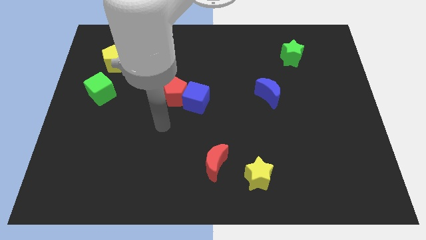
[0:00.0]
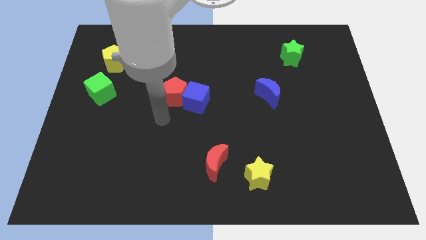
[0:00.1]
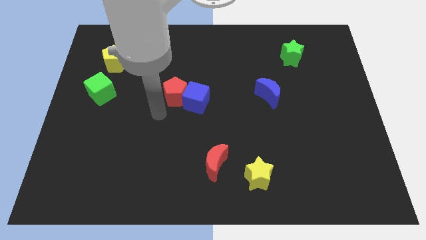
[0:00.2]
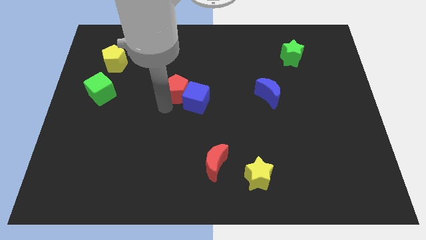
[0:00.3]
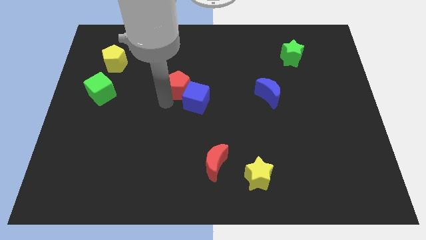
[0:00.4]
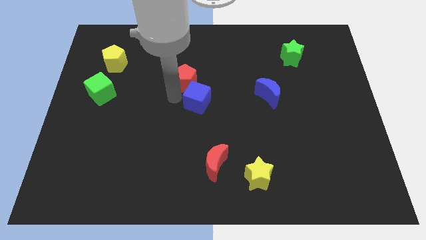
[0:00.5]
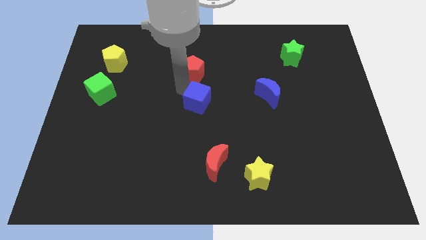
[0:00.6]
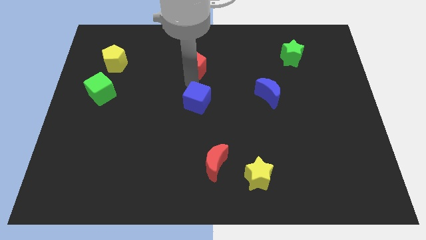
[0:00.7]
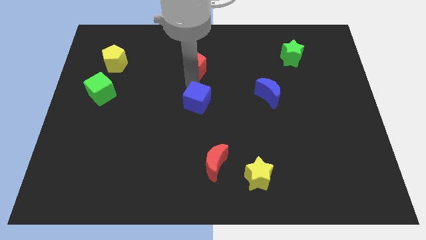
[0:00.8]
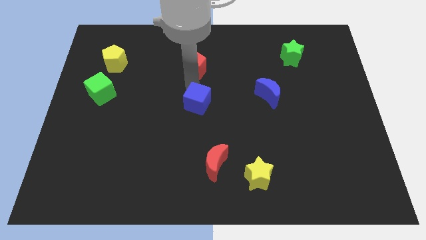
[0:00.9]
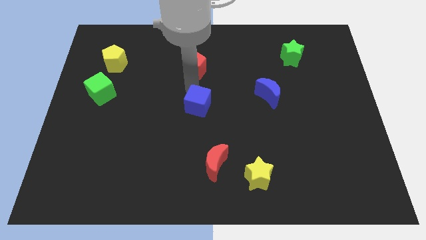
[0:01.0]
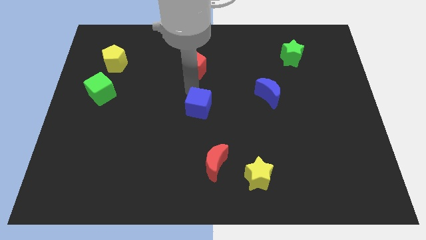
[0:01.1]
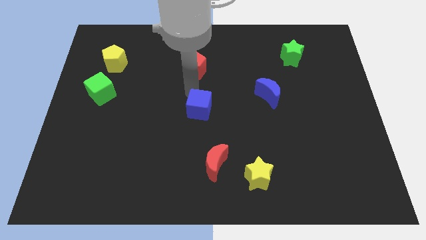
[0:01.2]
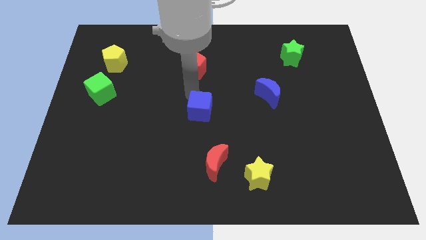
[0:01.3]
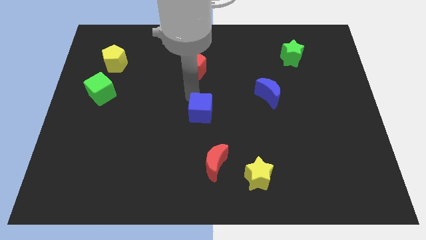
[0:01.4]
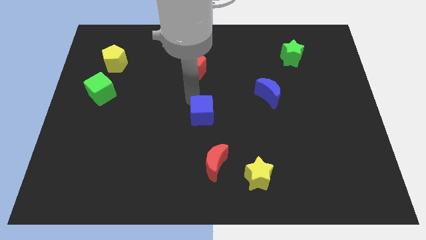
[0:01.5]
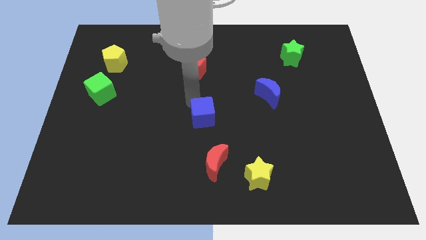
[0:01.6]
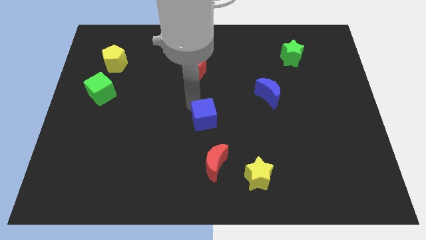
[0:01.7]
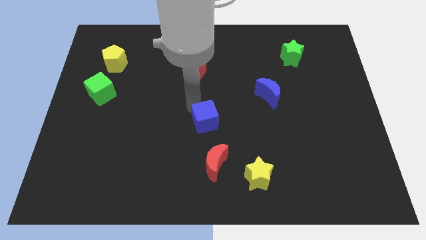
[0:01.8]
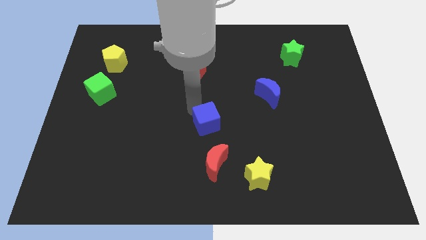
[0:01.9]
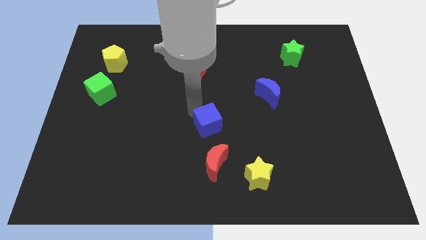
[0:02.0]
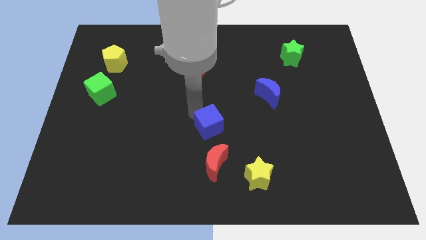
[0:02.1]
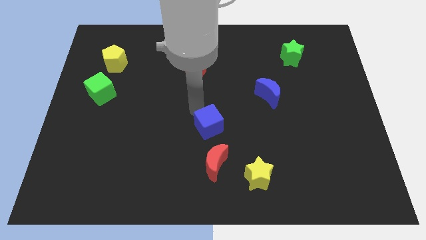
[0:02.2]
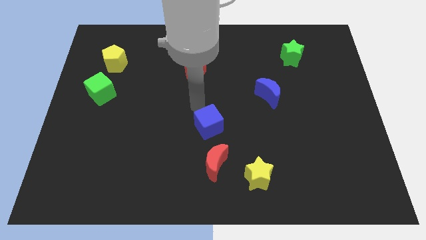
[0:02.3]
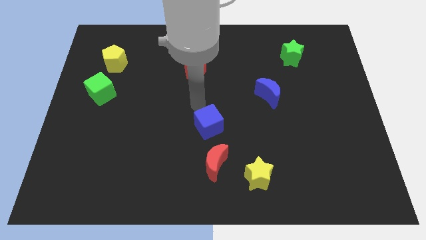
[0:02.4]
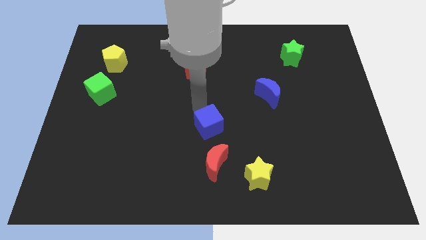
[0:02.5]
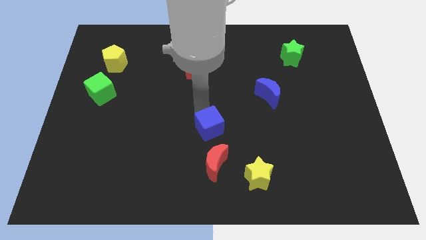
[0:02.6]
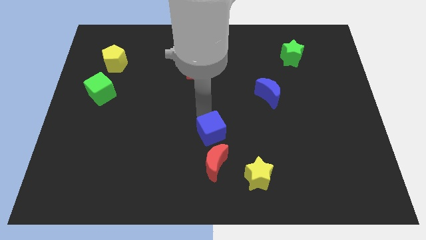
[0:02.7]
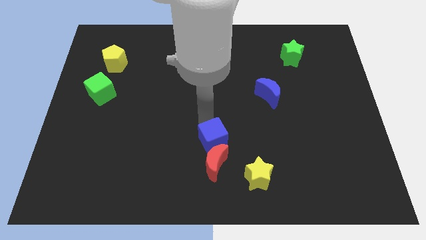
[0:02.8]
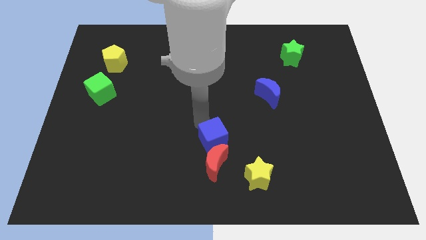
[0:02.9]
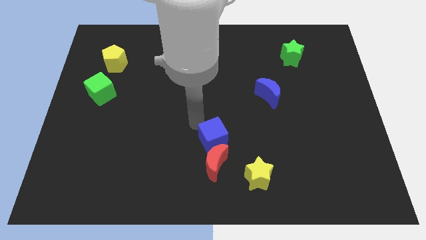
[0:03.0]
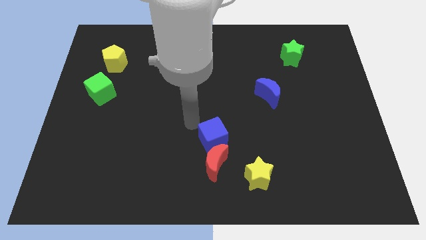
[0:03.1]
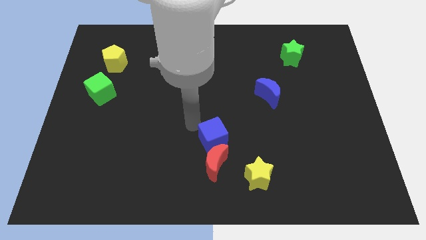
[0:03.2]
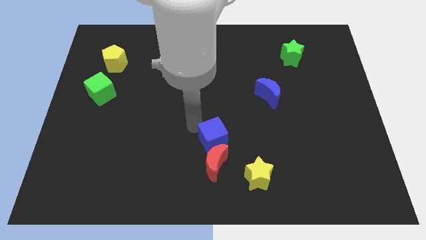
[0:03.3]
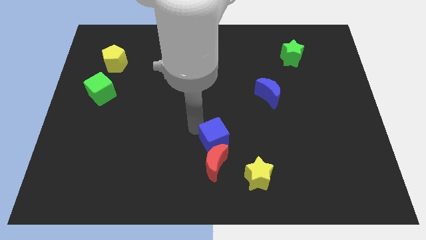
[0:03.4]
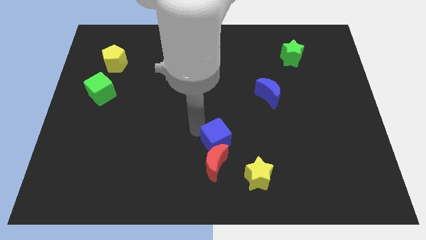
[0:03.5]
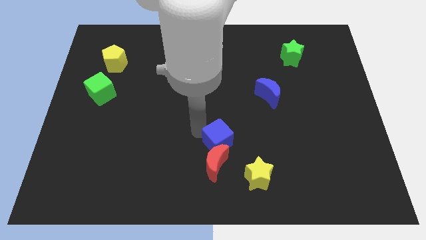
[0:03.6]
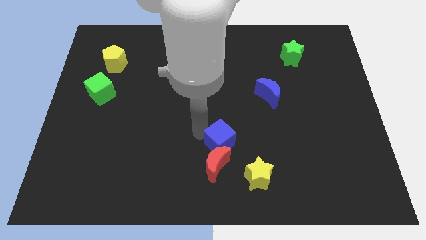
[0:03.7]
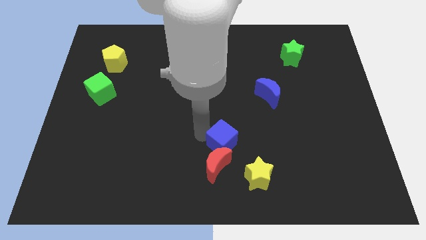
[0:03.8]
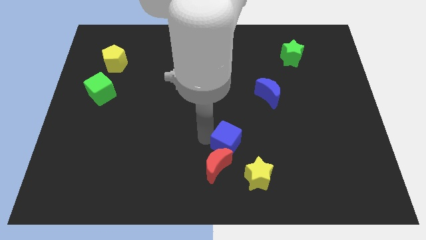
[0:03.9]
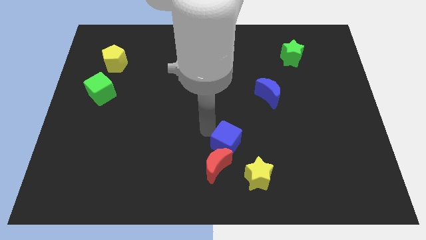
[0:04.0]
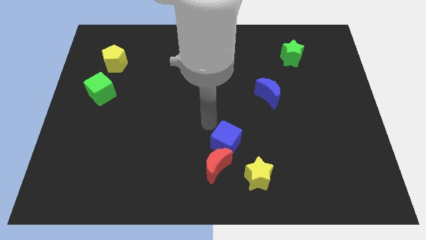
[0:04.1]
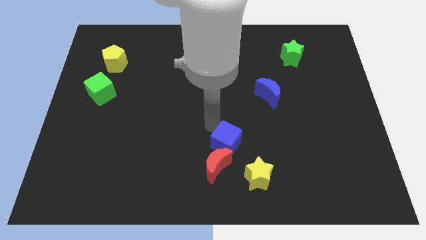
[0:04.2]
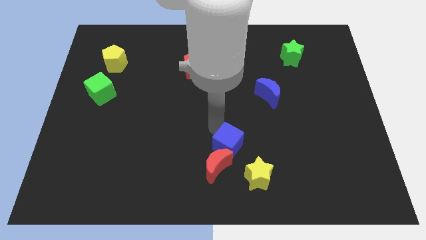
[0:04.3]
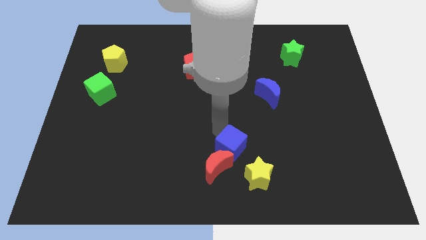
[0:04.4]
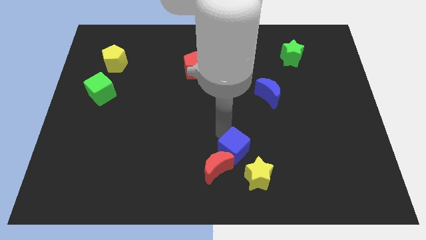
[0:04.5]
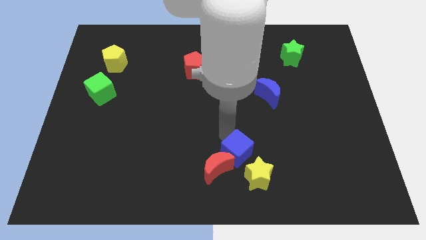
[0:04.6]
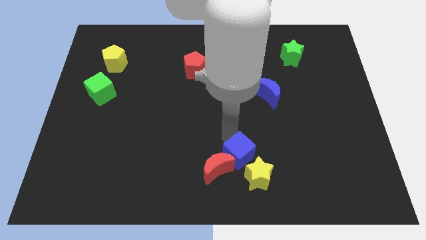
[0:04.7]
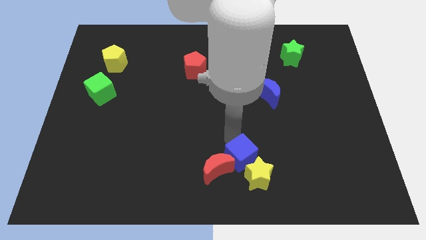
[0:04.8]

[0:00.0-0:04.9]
move the blue cube to the yellow star

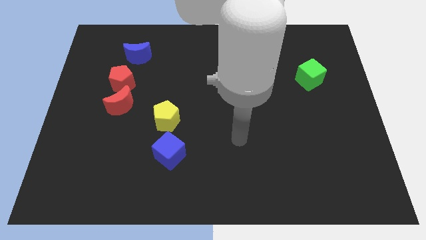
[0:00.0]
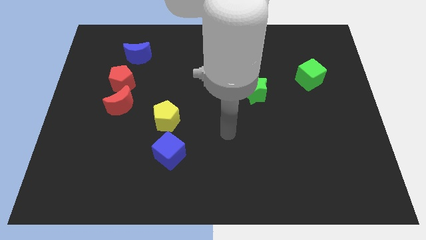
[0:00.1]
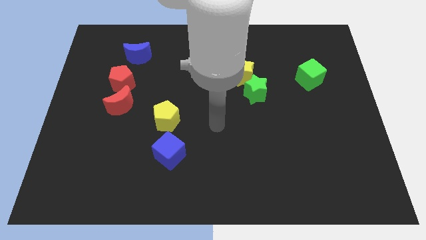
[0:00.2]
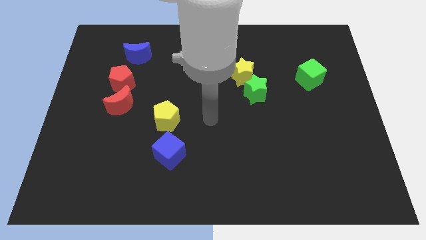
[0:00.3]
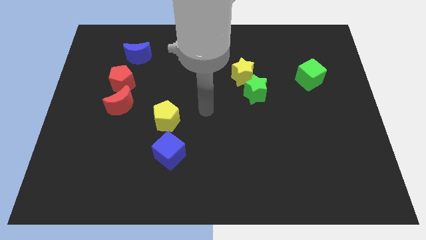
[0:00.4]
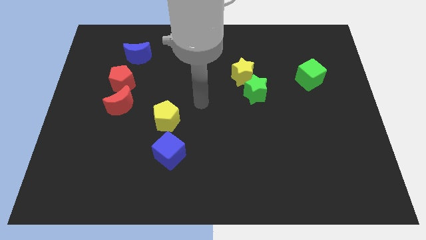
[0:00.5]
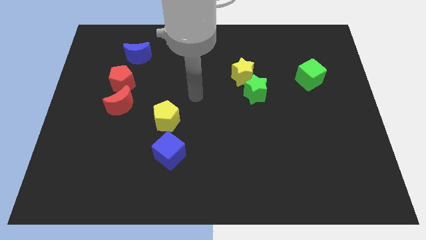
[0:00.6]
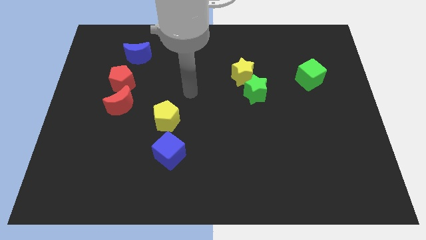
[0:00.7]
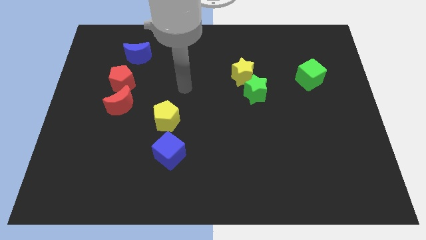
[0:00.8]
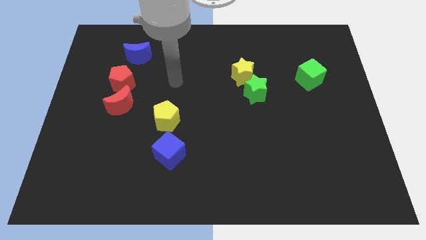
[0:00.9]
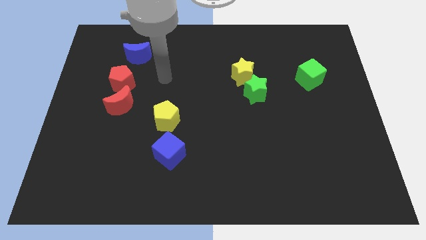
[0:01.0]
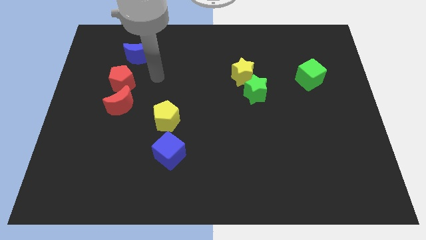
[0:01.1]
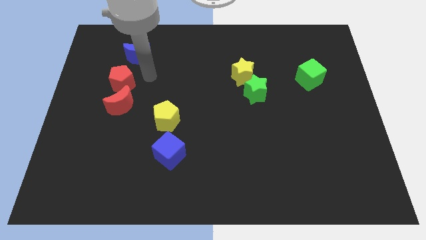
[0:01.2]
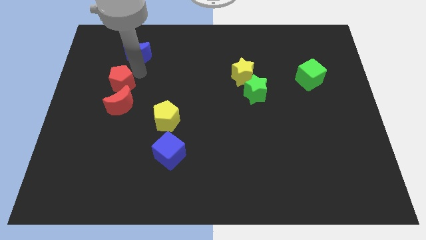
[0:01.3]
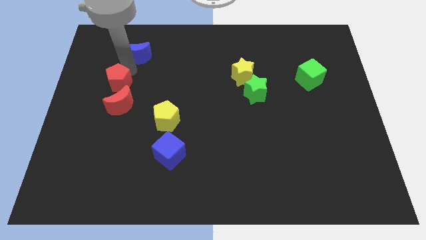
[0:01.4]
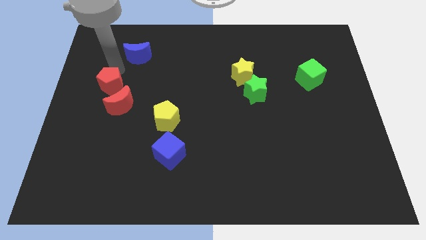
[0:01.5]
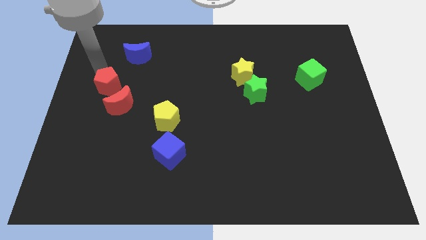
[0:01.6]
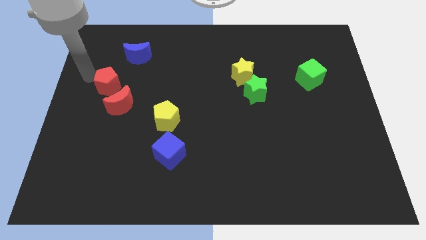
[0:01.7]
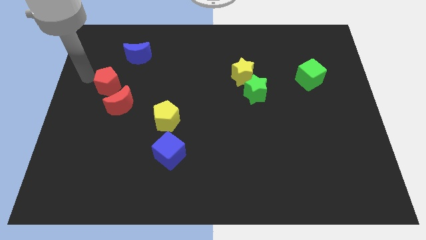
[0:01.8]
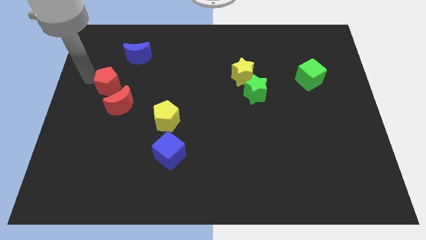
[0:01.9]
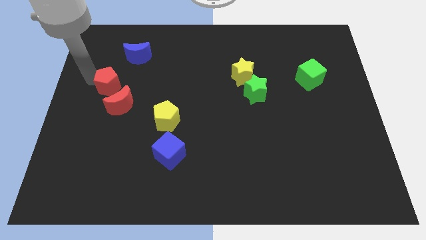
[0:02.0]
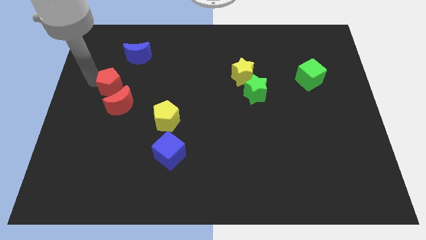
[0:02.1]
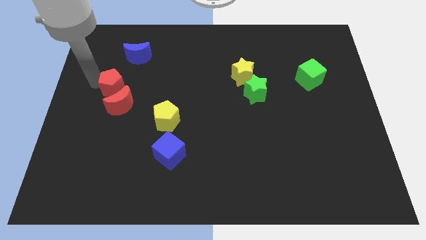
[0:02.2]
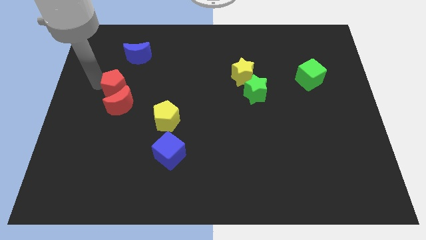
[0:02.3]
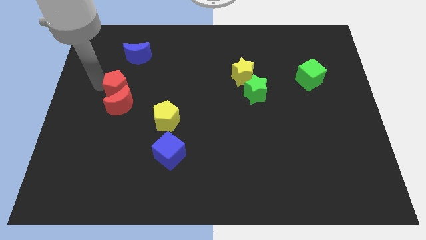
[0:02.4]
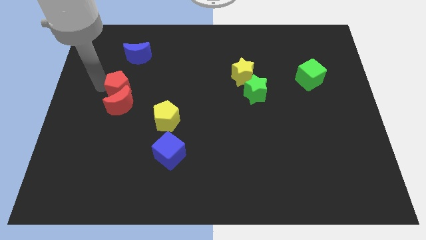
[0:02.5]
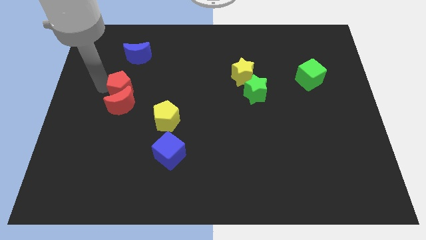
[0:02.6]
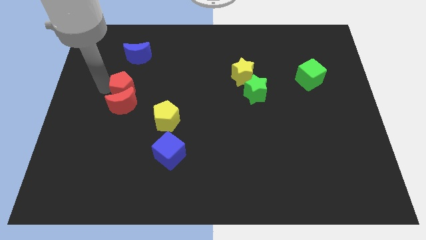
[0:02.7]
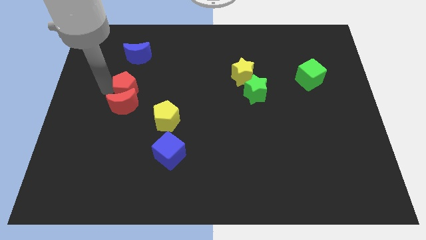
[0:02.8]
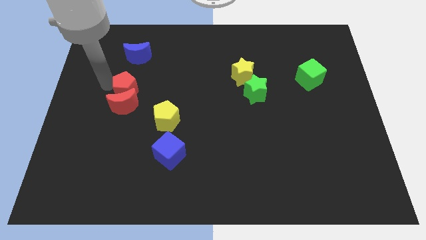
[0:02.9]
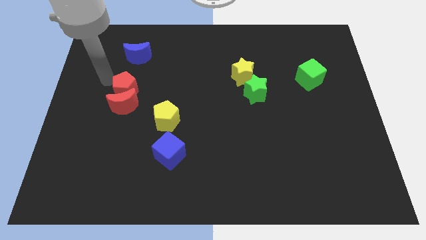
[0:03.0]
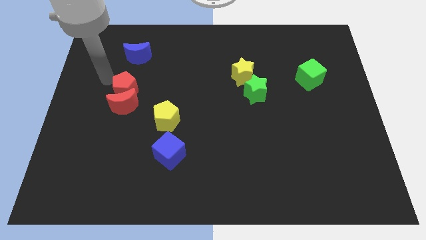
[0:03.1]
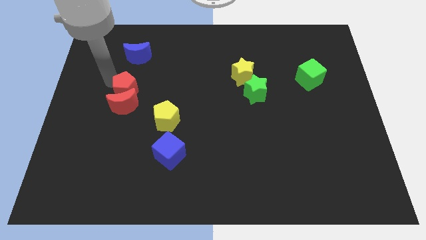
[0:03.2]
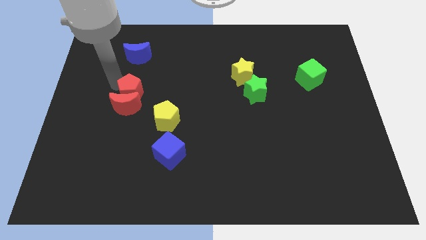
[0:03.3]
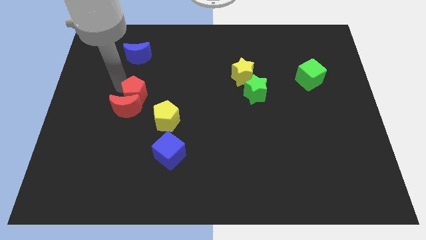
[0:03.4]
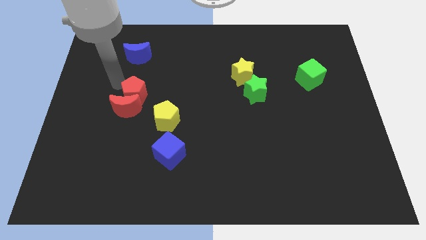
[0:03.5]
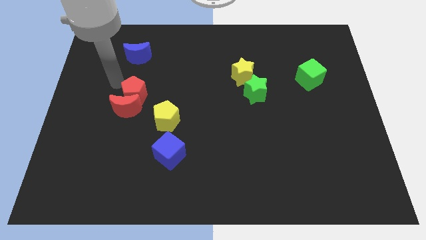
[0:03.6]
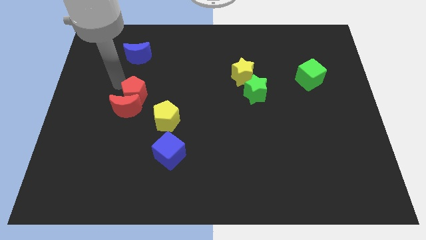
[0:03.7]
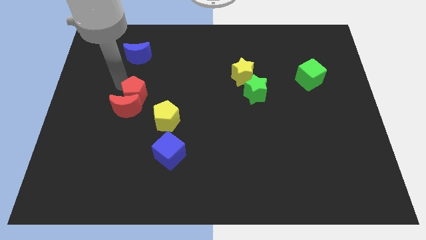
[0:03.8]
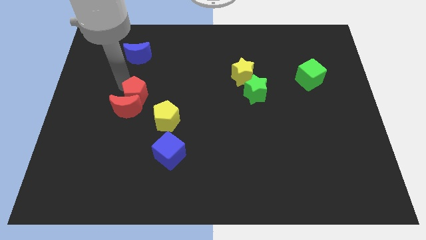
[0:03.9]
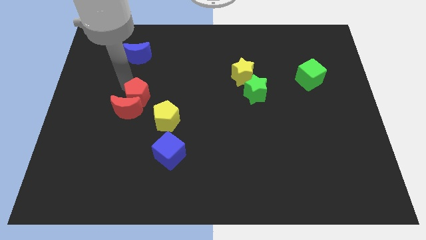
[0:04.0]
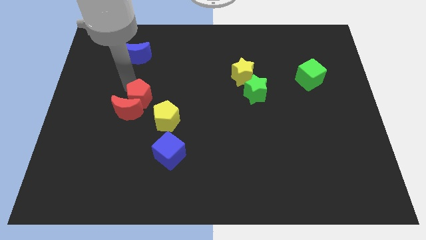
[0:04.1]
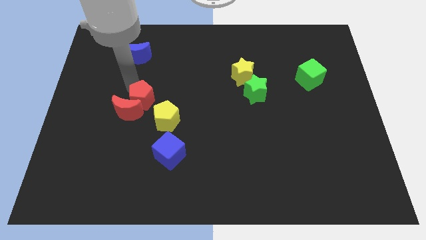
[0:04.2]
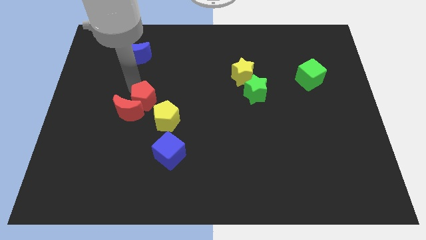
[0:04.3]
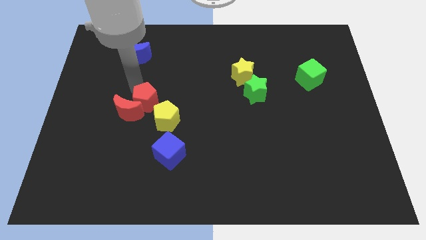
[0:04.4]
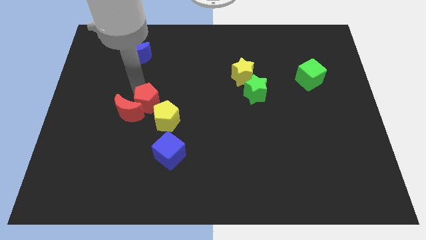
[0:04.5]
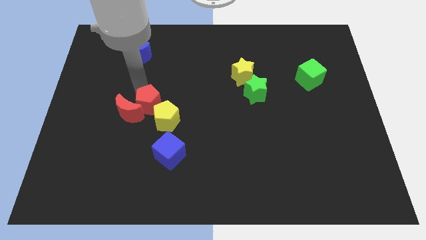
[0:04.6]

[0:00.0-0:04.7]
slide the red pentagon close to the yellow pentagon
